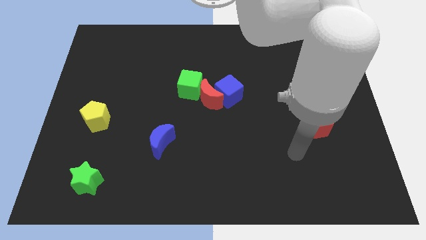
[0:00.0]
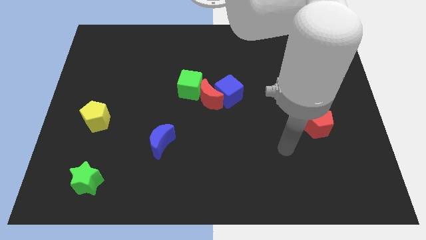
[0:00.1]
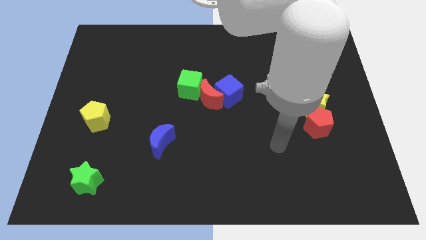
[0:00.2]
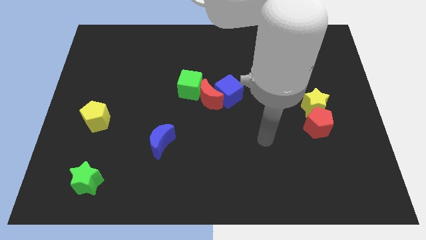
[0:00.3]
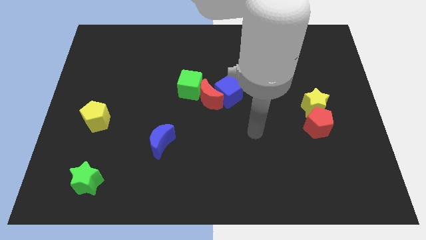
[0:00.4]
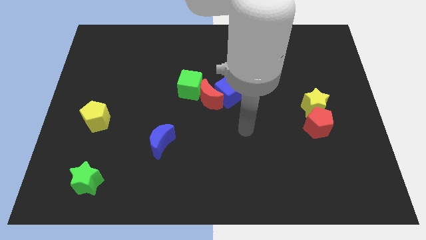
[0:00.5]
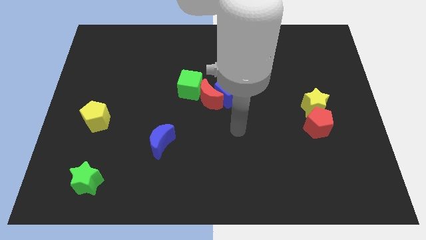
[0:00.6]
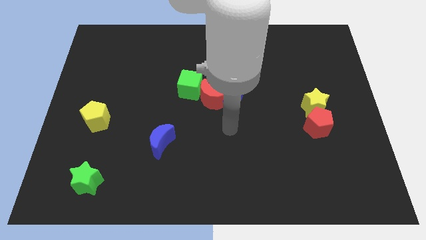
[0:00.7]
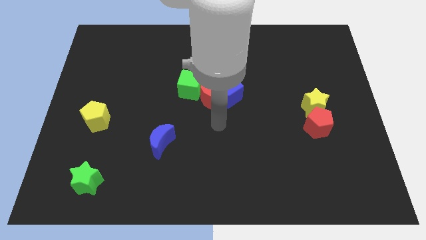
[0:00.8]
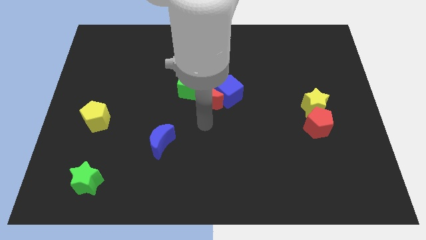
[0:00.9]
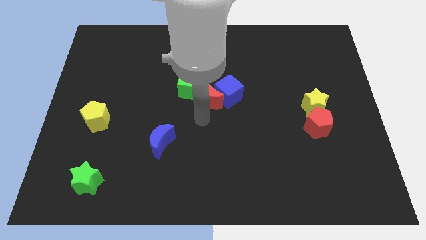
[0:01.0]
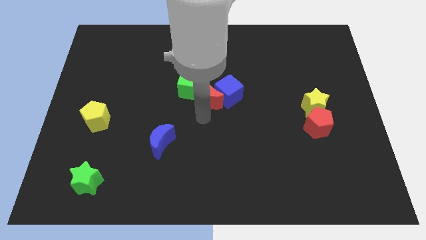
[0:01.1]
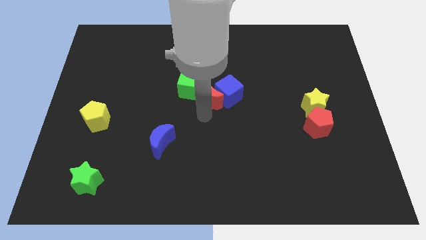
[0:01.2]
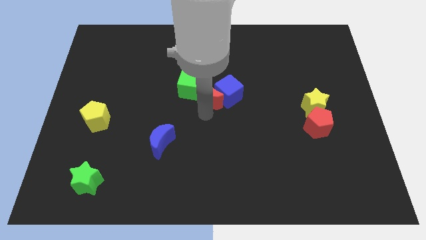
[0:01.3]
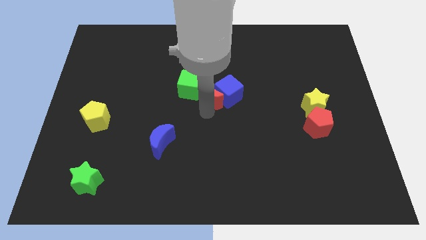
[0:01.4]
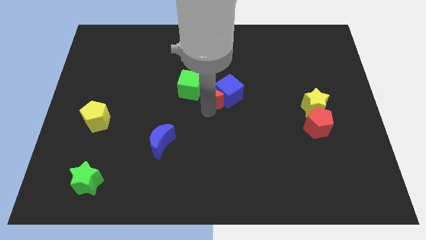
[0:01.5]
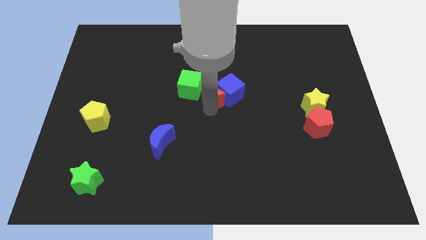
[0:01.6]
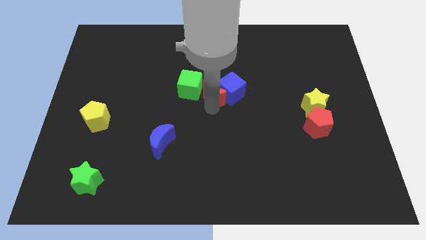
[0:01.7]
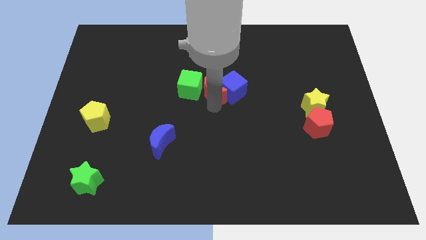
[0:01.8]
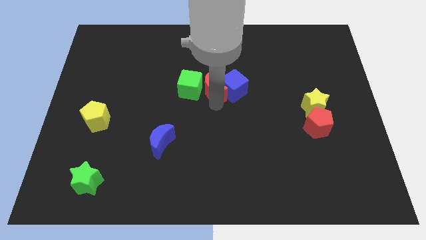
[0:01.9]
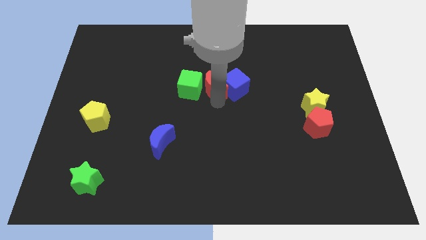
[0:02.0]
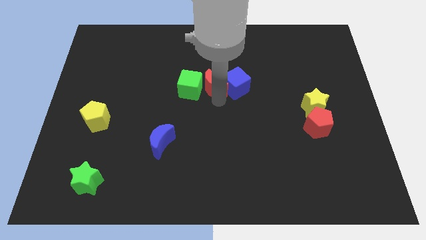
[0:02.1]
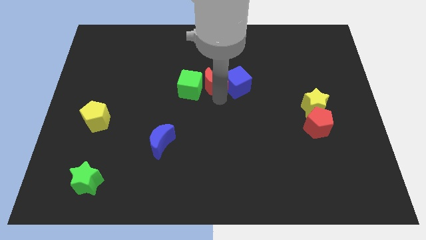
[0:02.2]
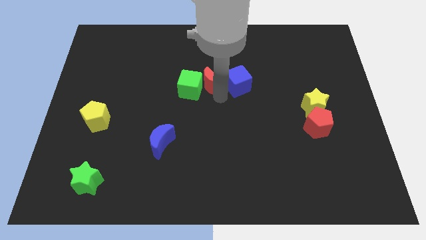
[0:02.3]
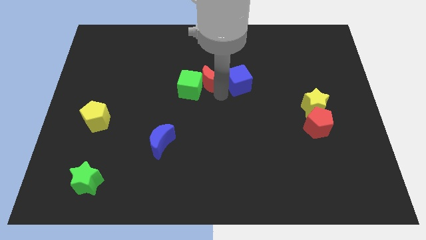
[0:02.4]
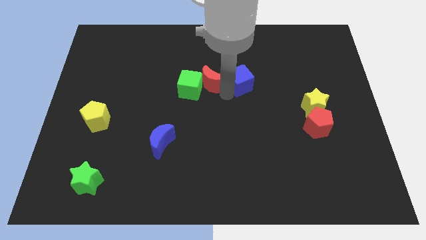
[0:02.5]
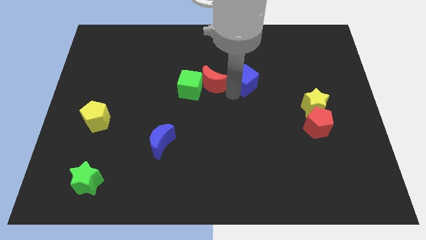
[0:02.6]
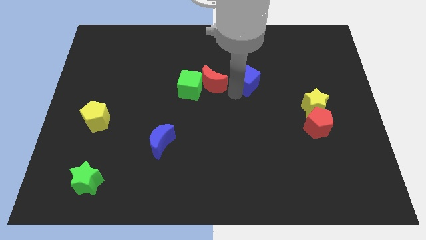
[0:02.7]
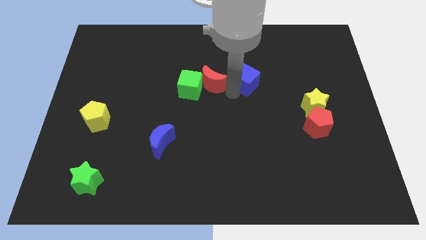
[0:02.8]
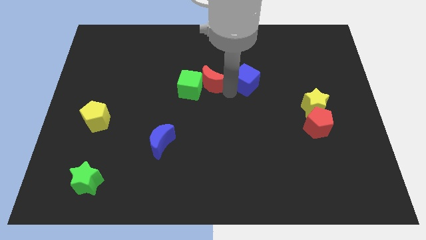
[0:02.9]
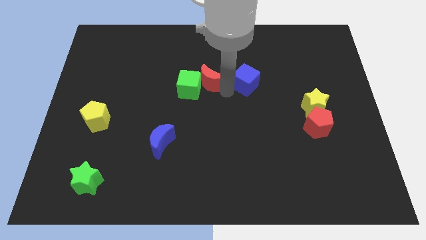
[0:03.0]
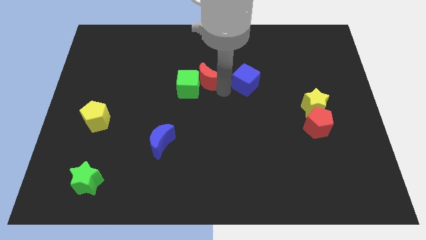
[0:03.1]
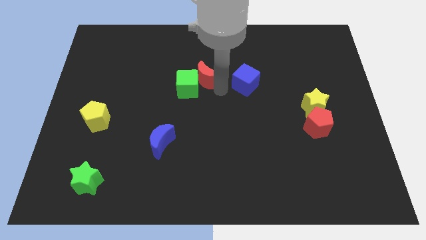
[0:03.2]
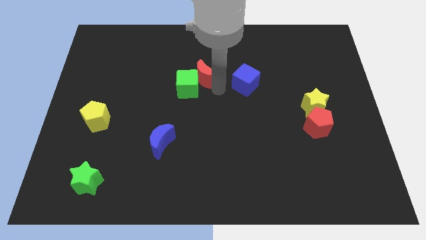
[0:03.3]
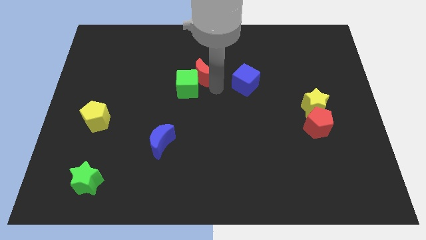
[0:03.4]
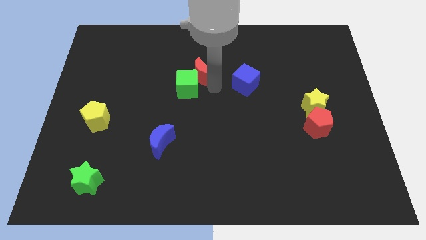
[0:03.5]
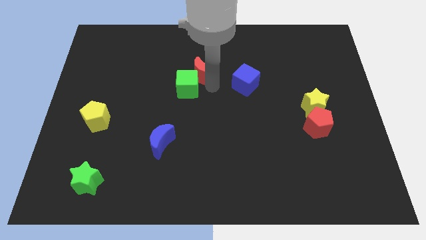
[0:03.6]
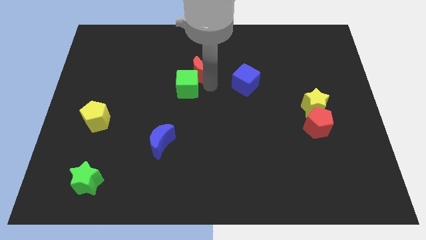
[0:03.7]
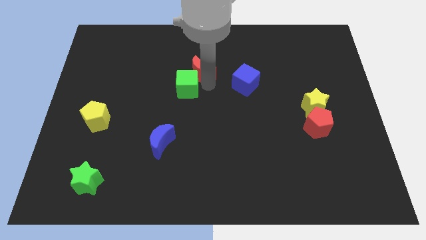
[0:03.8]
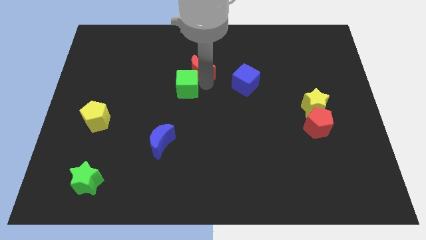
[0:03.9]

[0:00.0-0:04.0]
slightly move the red moon upwards and left diagonally

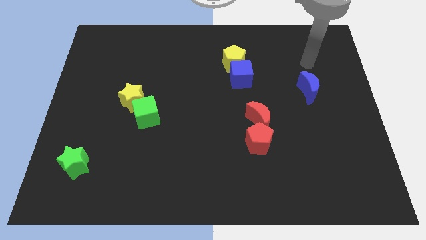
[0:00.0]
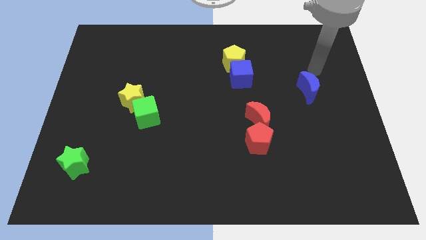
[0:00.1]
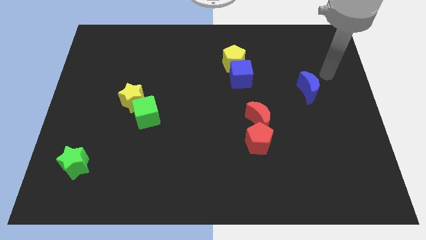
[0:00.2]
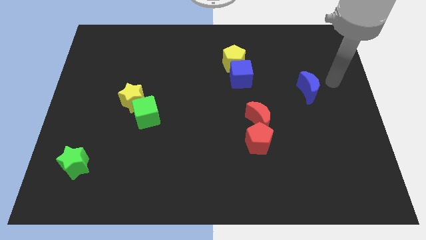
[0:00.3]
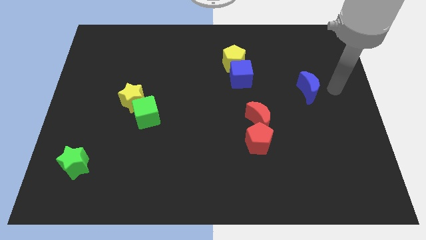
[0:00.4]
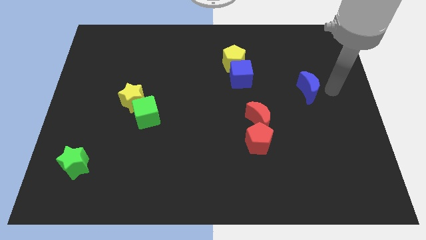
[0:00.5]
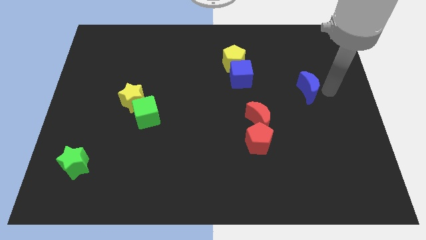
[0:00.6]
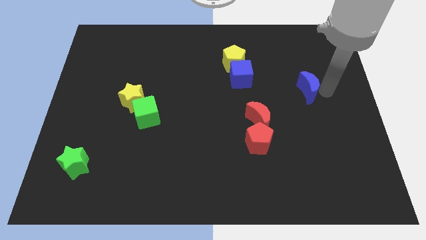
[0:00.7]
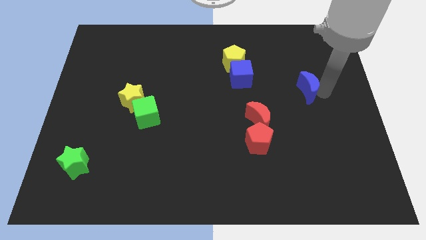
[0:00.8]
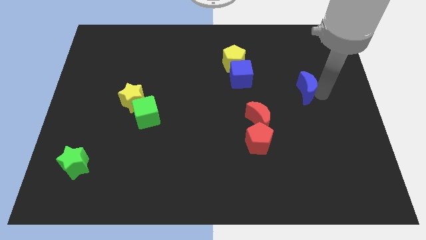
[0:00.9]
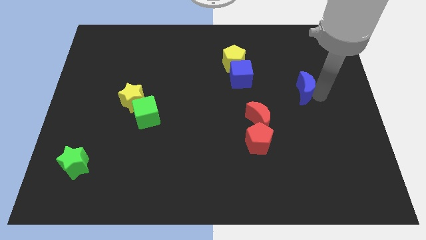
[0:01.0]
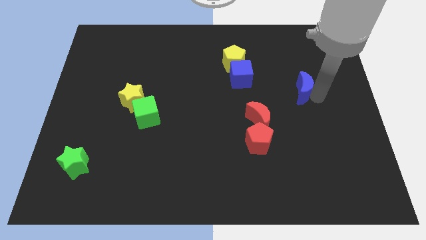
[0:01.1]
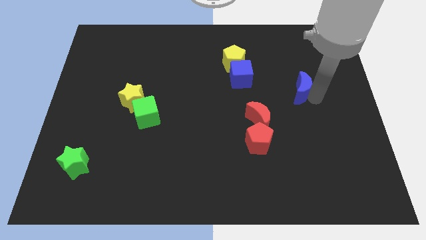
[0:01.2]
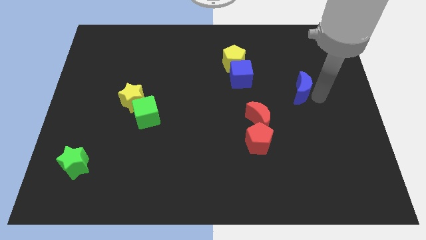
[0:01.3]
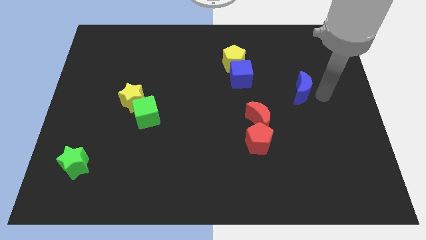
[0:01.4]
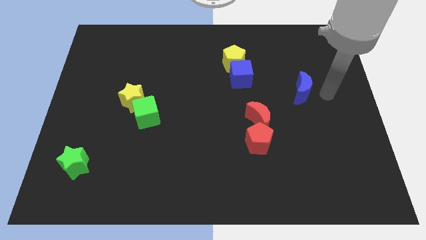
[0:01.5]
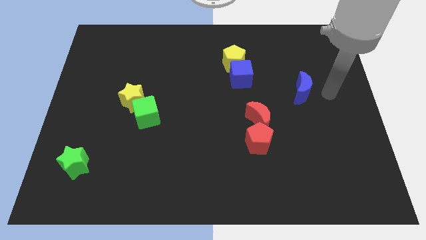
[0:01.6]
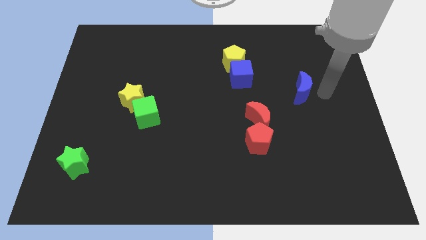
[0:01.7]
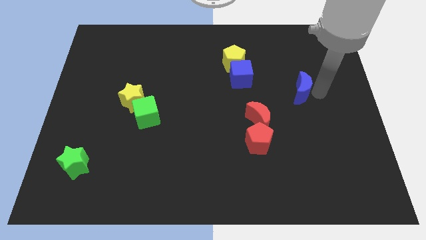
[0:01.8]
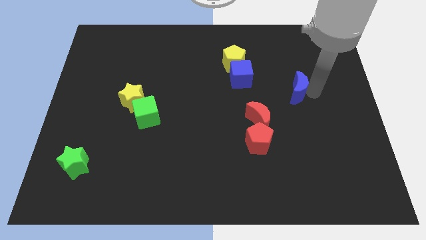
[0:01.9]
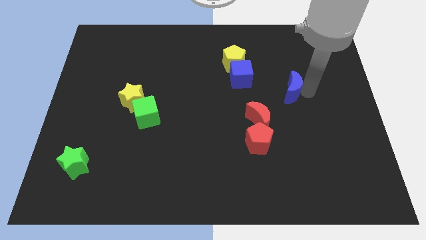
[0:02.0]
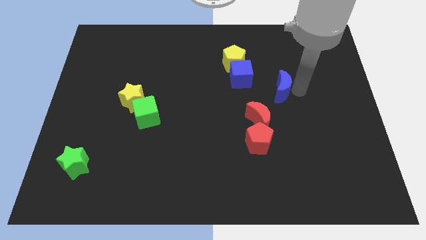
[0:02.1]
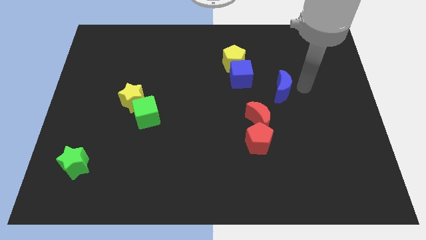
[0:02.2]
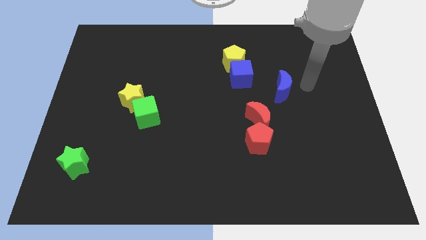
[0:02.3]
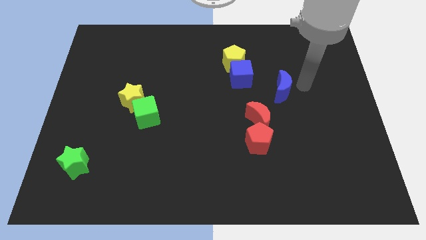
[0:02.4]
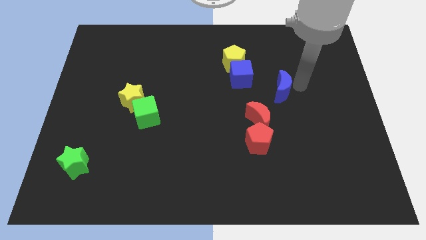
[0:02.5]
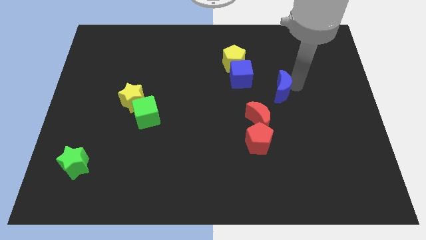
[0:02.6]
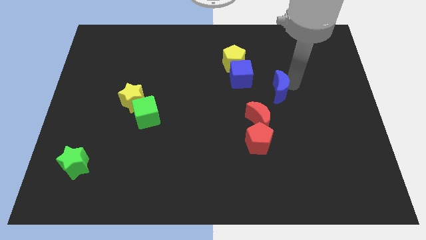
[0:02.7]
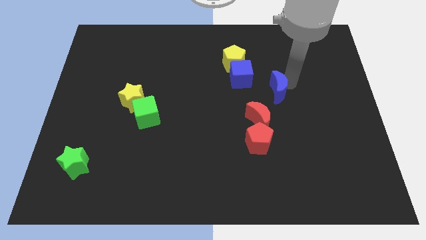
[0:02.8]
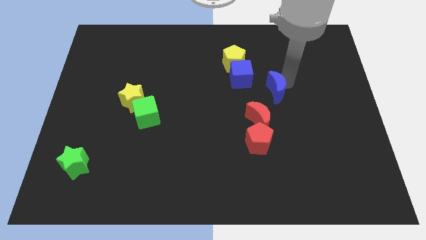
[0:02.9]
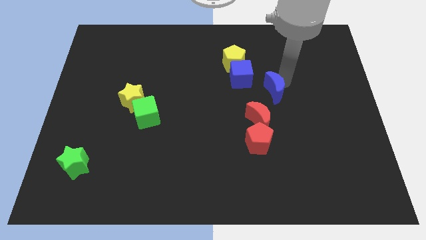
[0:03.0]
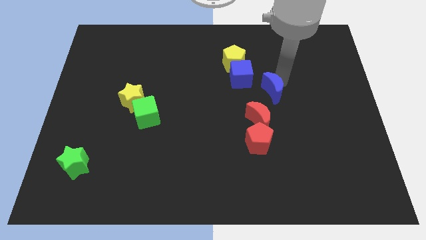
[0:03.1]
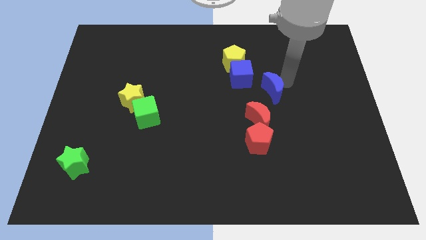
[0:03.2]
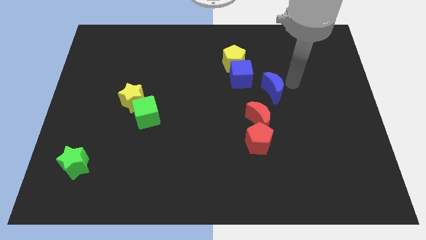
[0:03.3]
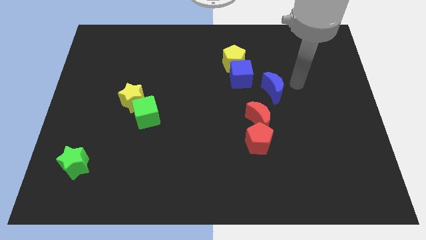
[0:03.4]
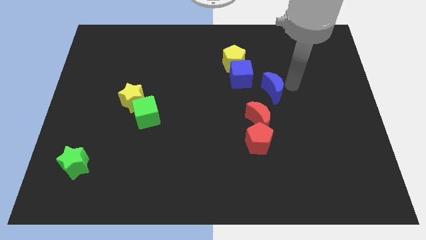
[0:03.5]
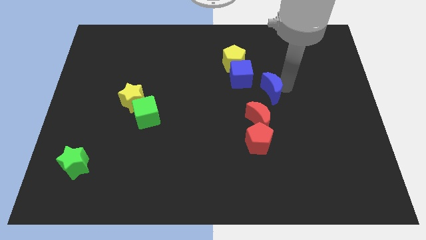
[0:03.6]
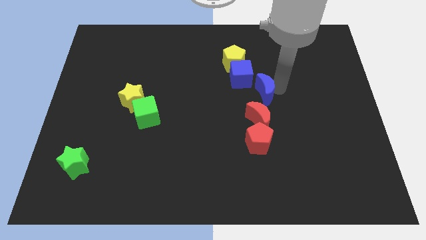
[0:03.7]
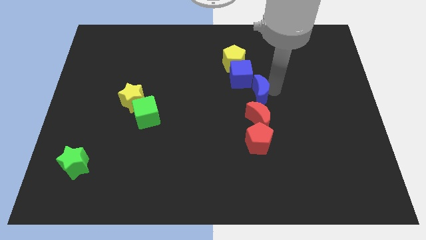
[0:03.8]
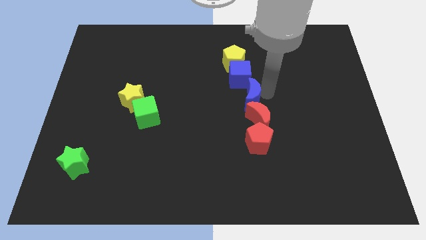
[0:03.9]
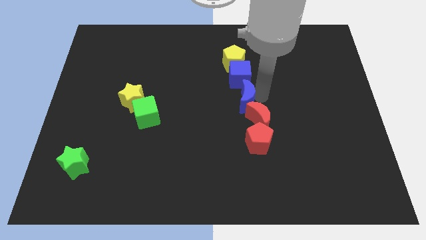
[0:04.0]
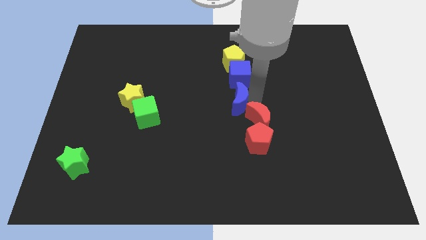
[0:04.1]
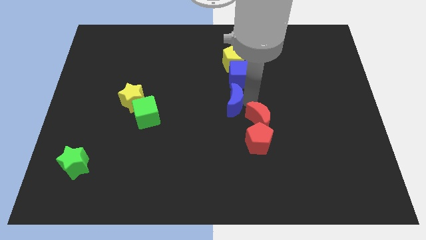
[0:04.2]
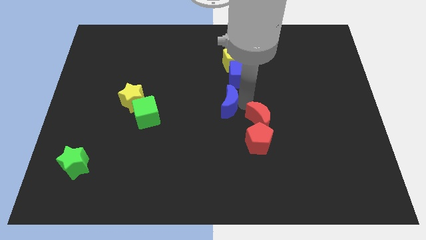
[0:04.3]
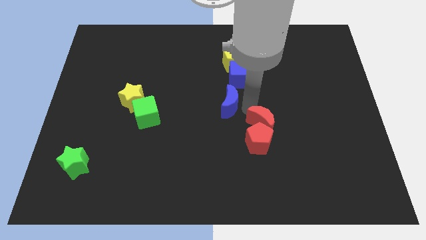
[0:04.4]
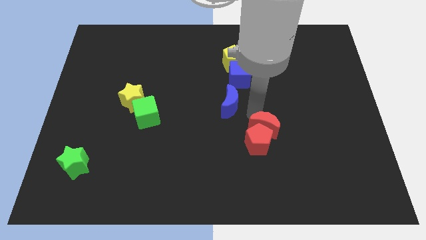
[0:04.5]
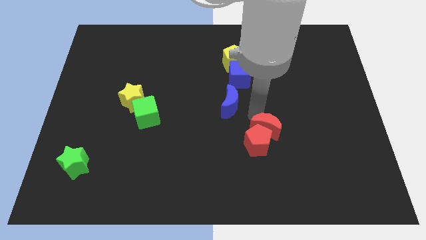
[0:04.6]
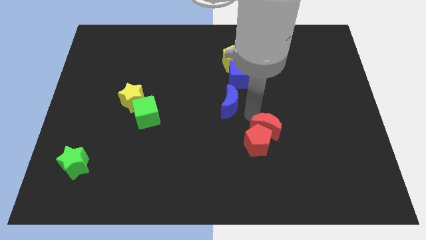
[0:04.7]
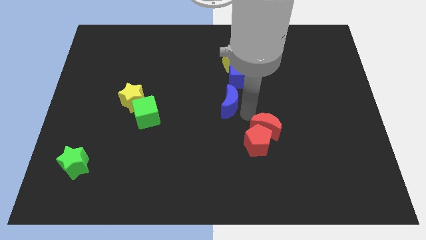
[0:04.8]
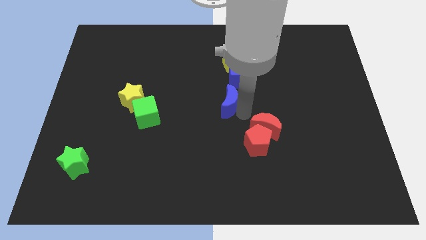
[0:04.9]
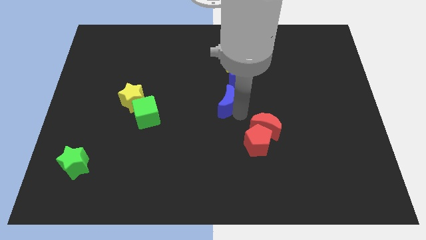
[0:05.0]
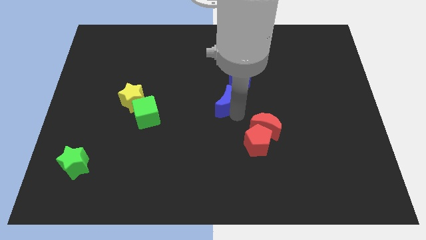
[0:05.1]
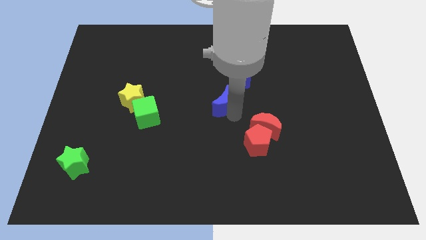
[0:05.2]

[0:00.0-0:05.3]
move the blue moon to the left
